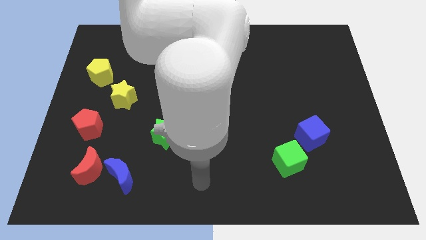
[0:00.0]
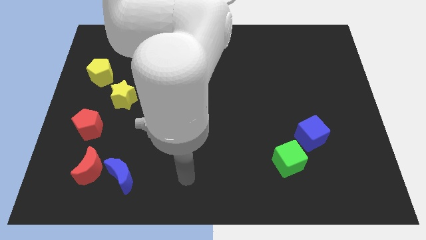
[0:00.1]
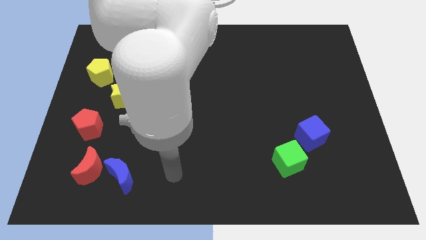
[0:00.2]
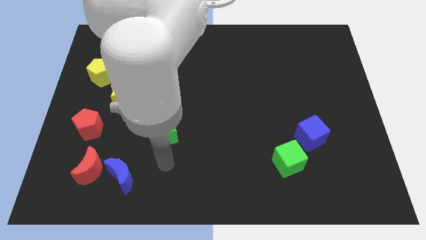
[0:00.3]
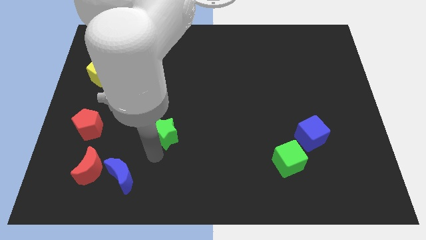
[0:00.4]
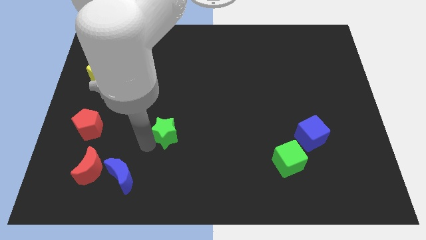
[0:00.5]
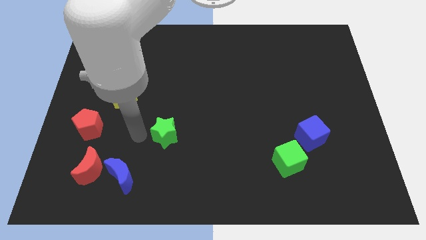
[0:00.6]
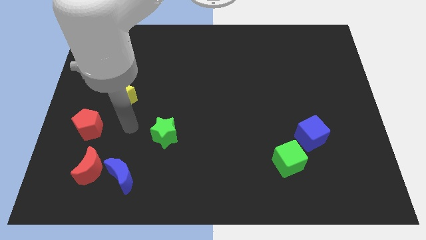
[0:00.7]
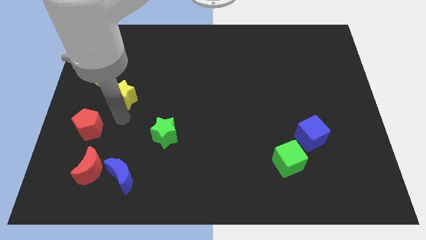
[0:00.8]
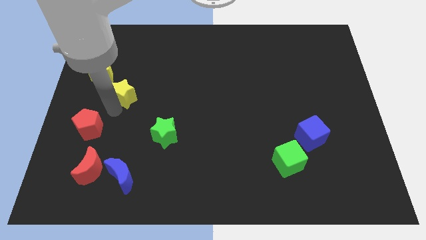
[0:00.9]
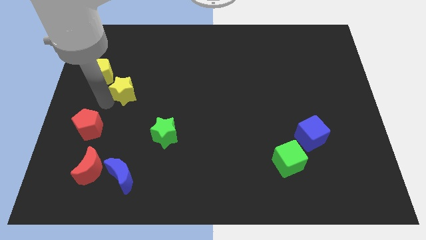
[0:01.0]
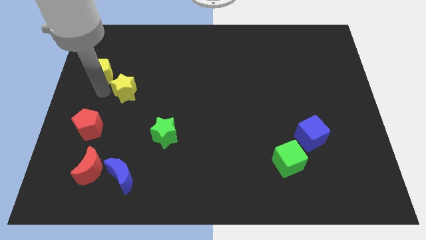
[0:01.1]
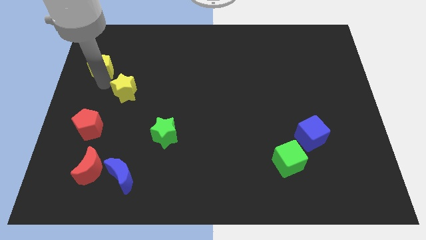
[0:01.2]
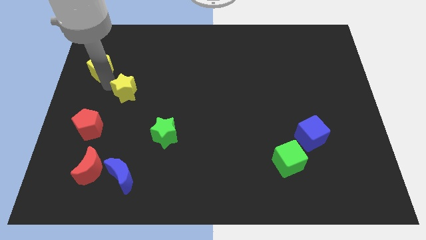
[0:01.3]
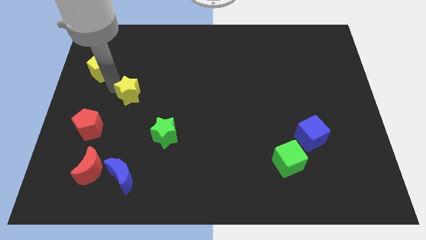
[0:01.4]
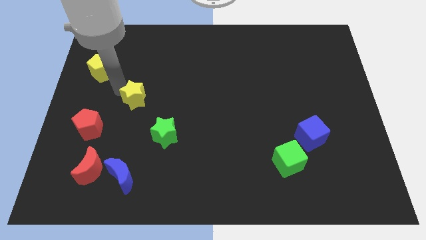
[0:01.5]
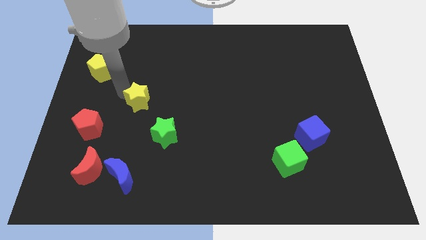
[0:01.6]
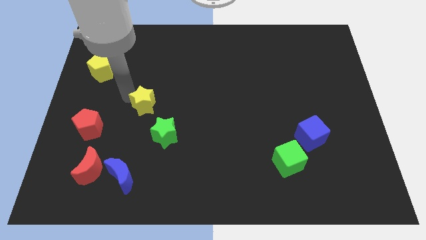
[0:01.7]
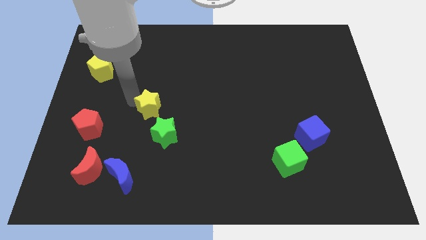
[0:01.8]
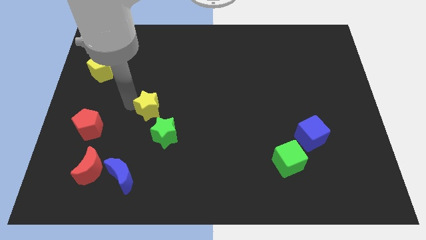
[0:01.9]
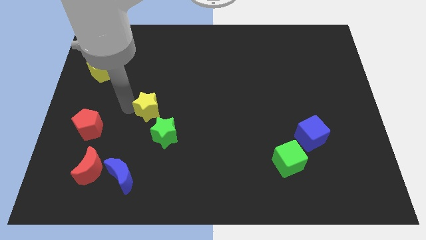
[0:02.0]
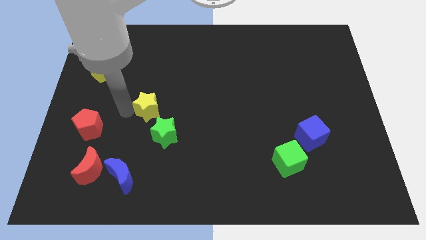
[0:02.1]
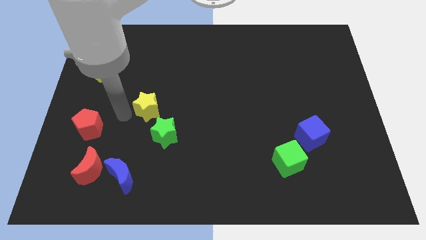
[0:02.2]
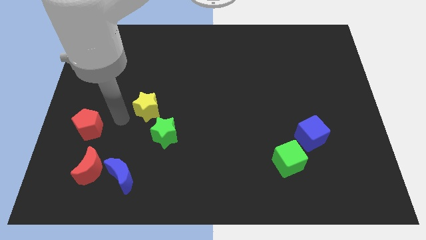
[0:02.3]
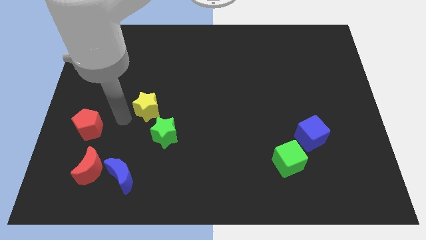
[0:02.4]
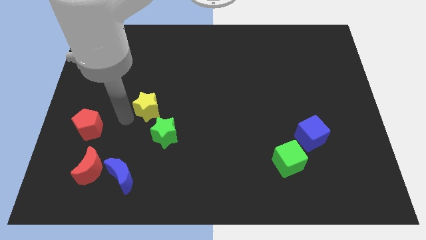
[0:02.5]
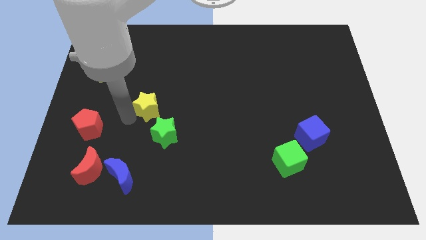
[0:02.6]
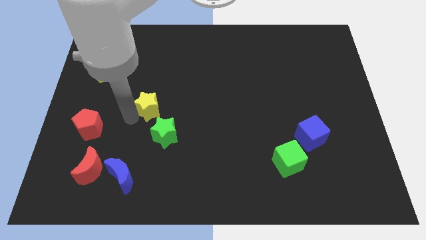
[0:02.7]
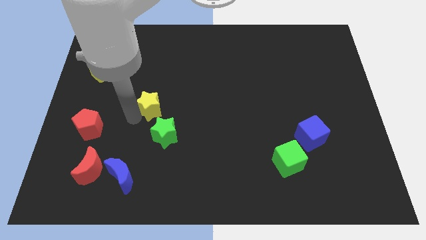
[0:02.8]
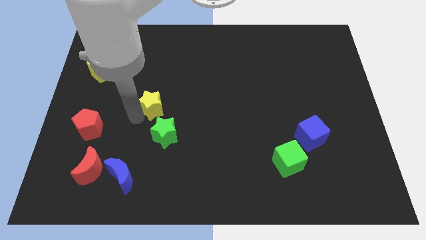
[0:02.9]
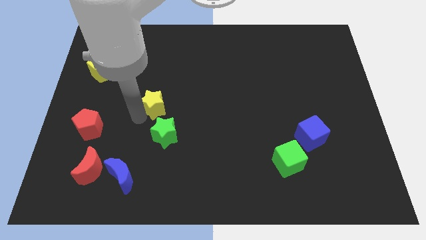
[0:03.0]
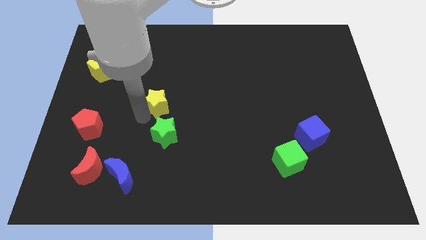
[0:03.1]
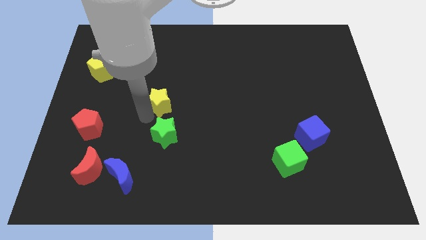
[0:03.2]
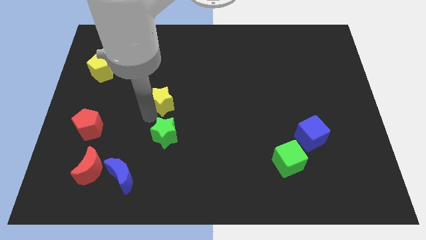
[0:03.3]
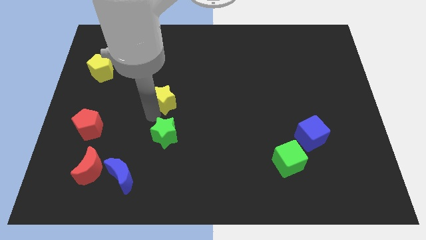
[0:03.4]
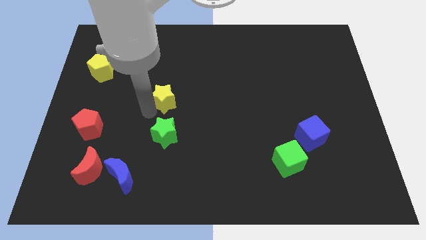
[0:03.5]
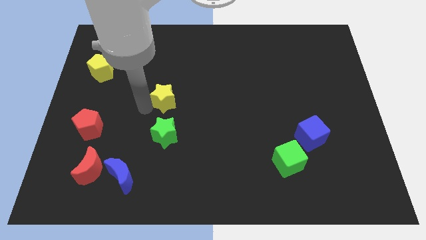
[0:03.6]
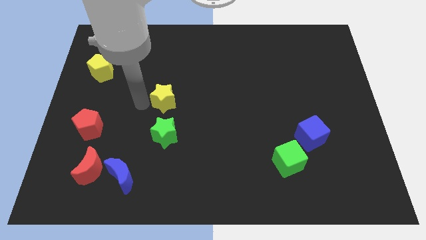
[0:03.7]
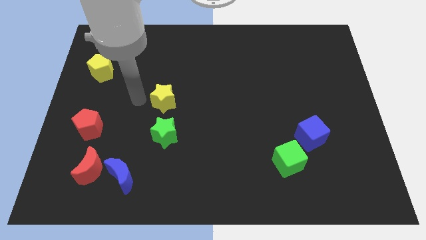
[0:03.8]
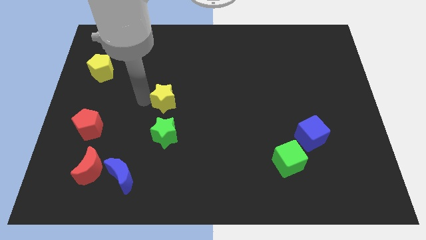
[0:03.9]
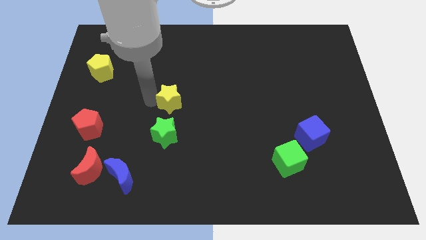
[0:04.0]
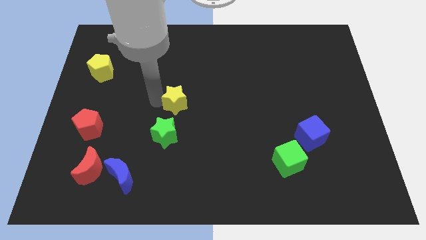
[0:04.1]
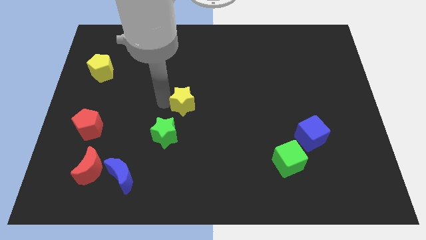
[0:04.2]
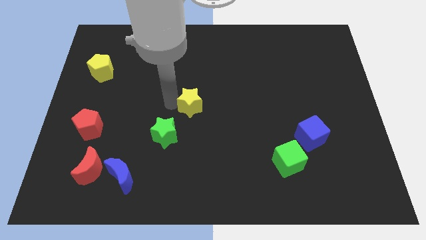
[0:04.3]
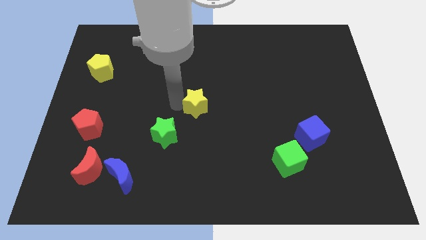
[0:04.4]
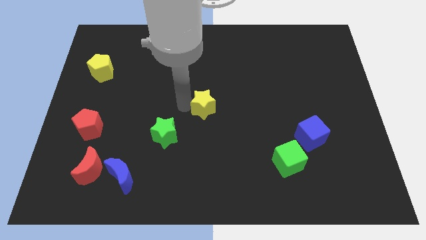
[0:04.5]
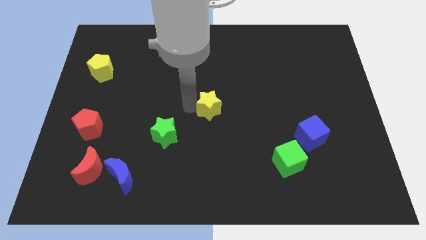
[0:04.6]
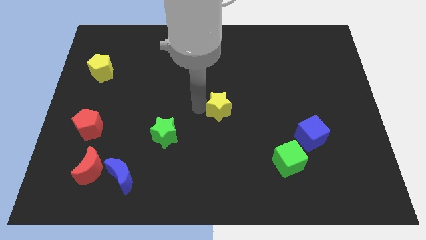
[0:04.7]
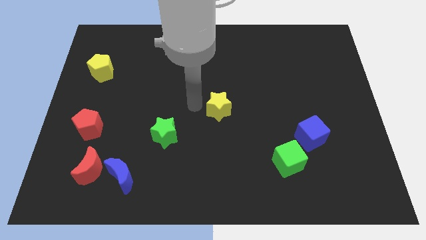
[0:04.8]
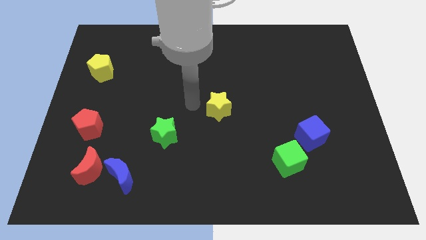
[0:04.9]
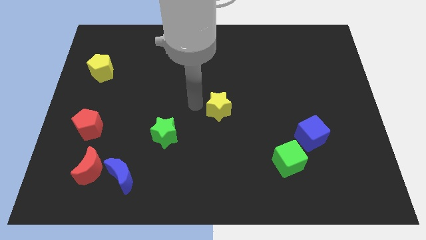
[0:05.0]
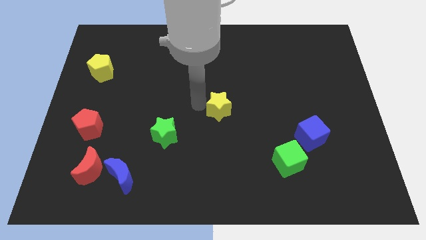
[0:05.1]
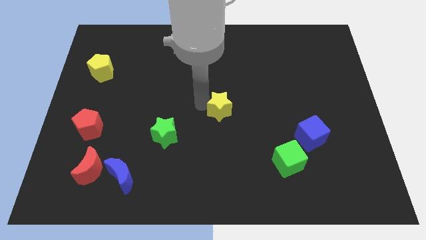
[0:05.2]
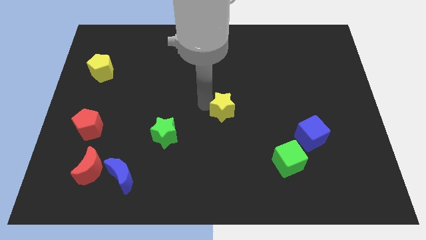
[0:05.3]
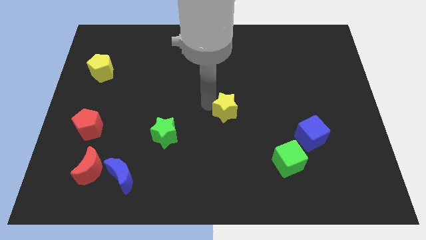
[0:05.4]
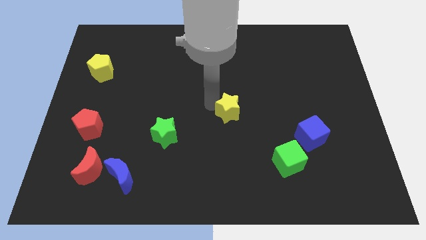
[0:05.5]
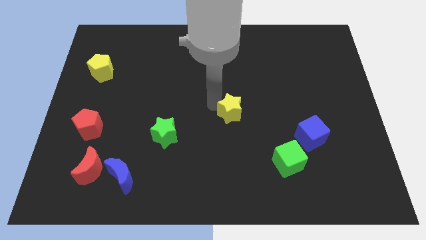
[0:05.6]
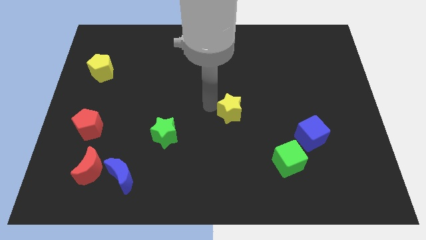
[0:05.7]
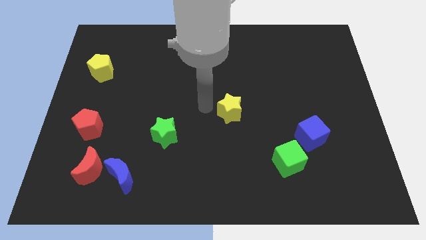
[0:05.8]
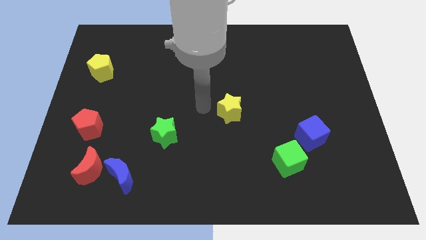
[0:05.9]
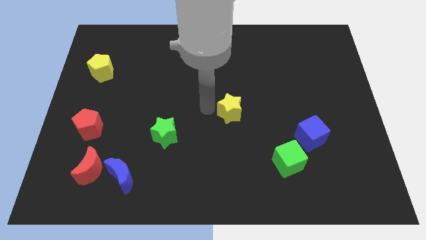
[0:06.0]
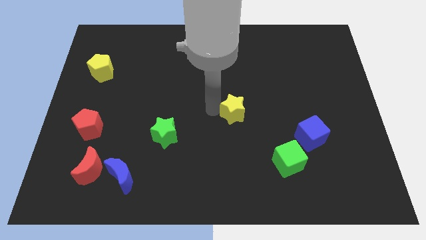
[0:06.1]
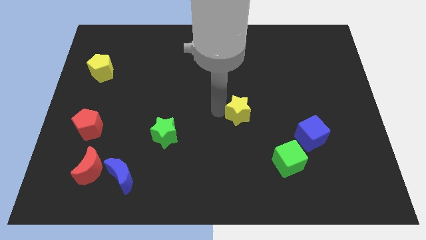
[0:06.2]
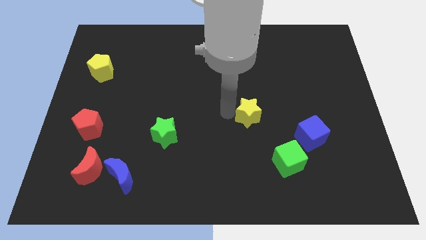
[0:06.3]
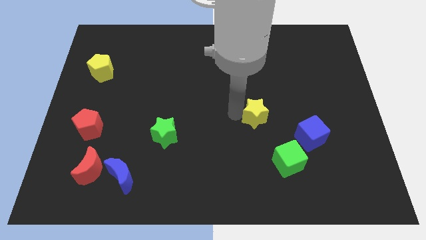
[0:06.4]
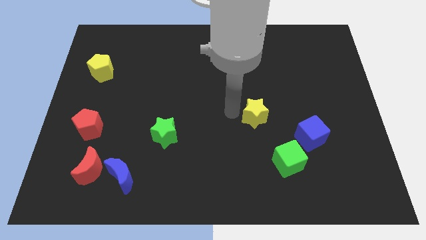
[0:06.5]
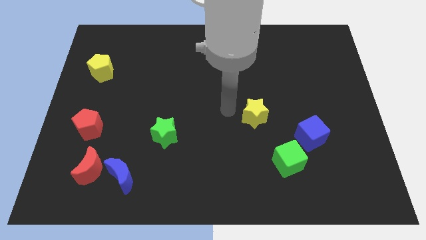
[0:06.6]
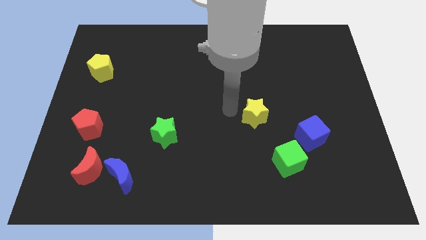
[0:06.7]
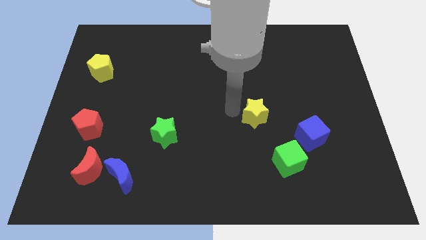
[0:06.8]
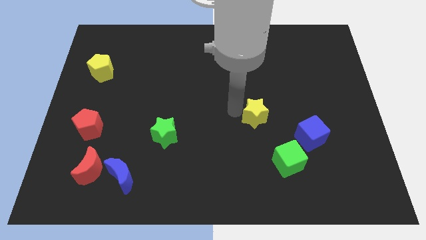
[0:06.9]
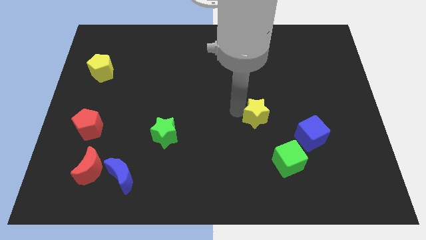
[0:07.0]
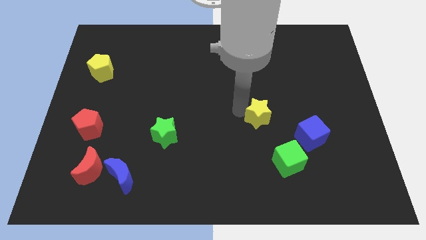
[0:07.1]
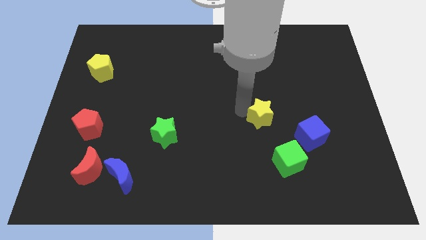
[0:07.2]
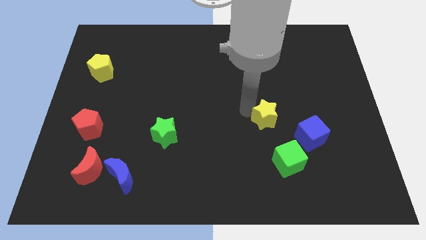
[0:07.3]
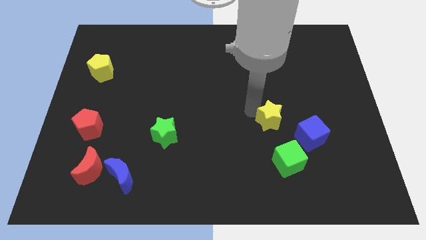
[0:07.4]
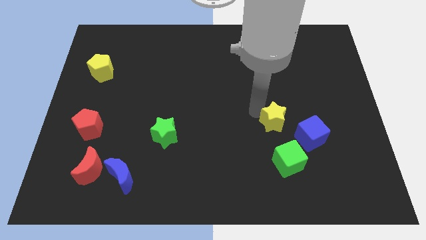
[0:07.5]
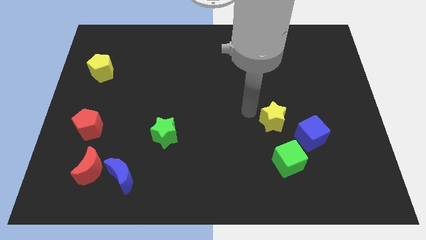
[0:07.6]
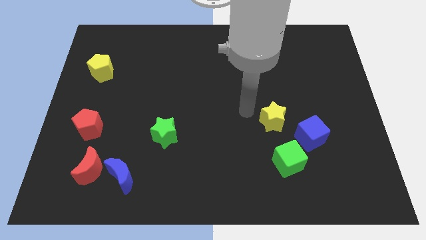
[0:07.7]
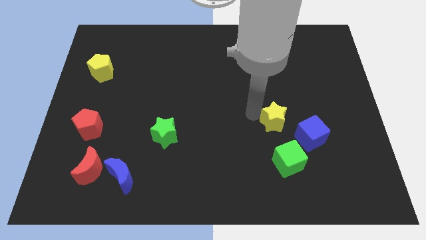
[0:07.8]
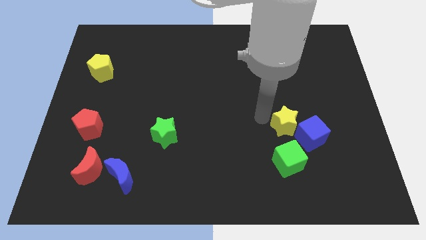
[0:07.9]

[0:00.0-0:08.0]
put the yellow star next to the blue cube
